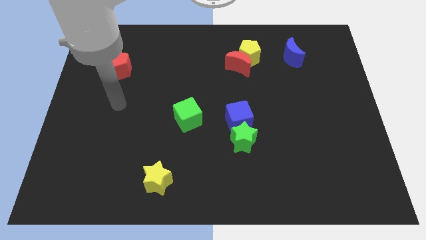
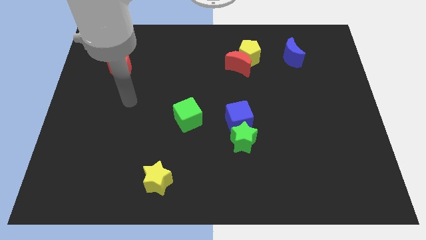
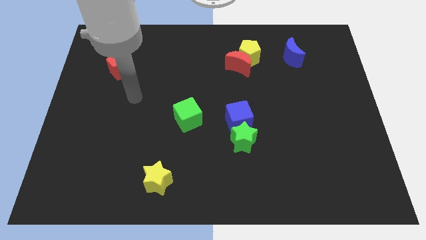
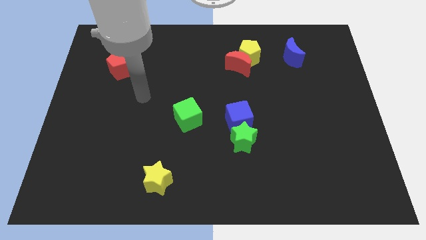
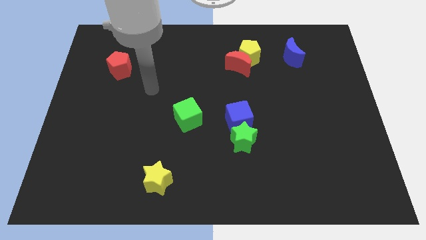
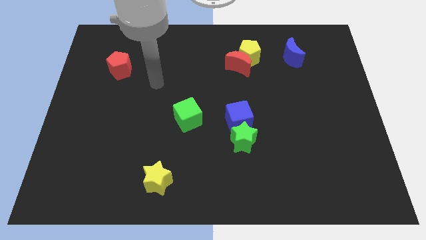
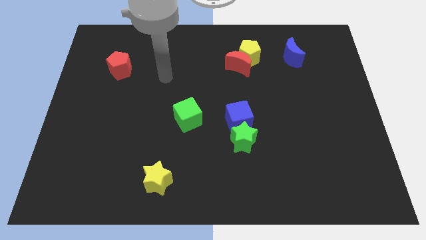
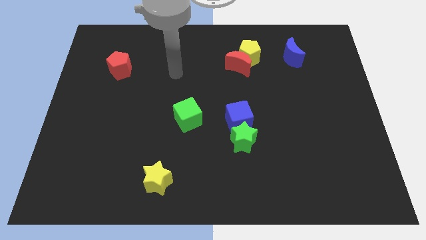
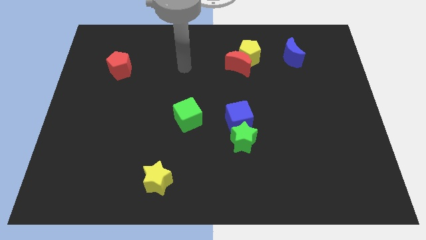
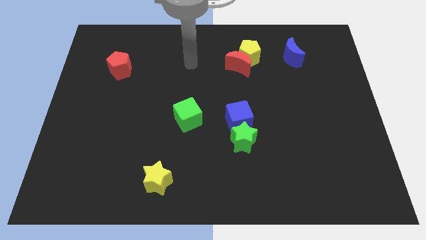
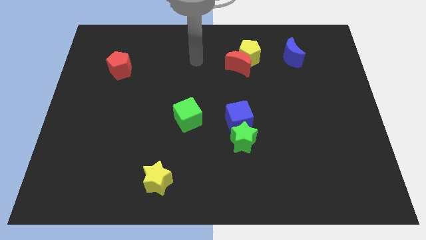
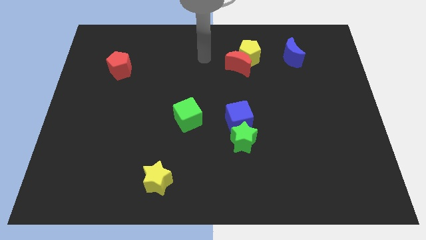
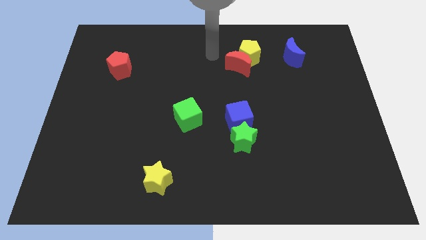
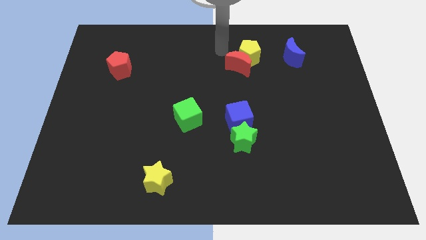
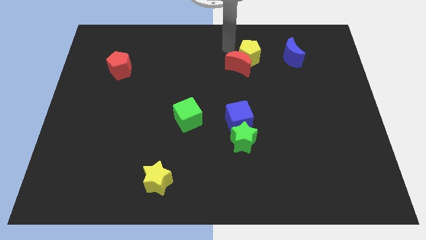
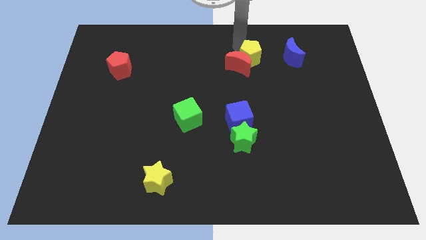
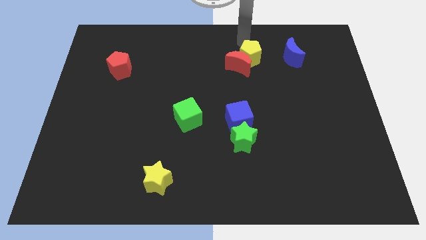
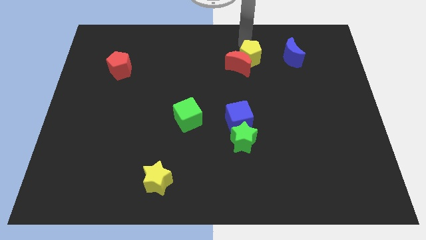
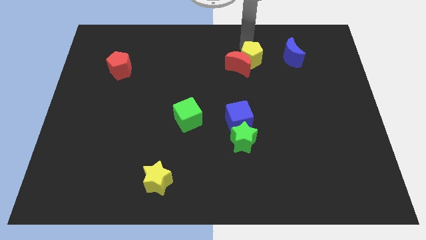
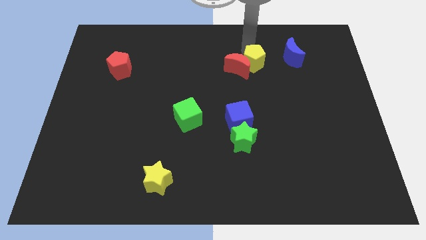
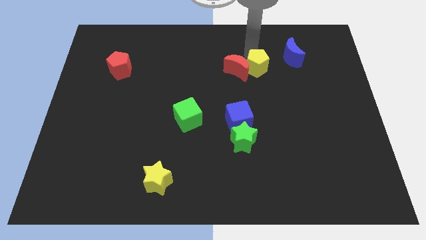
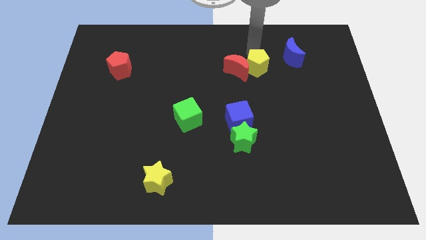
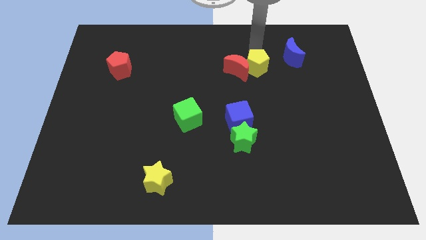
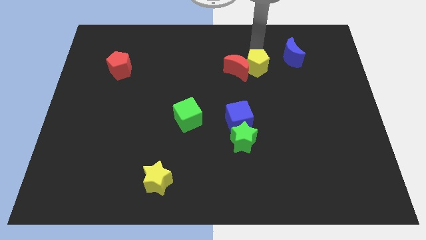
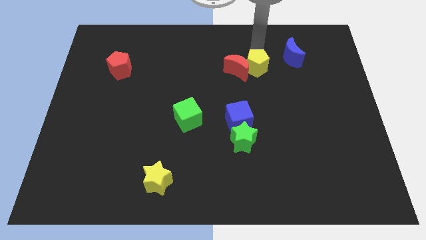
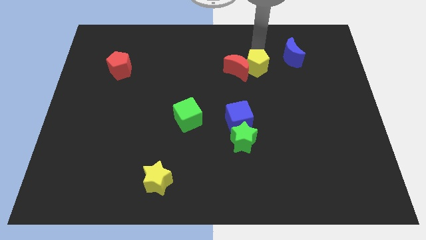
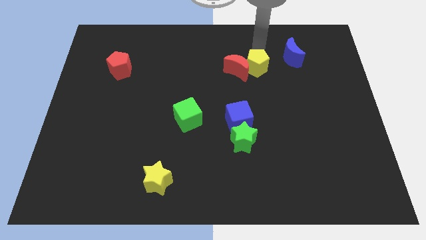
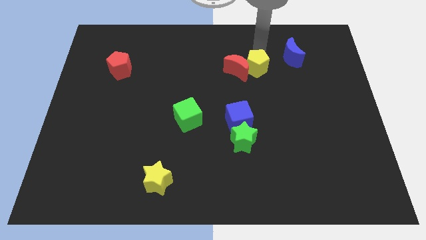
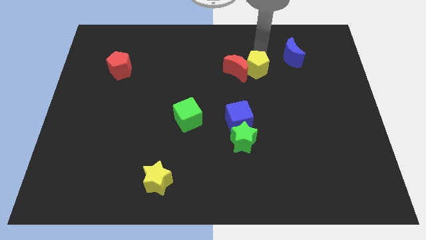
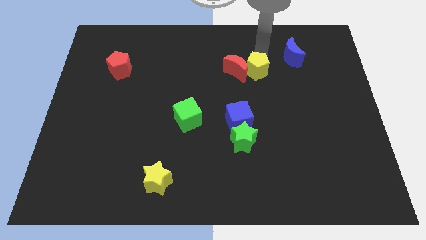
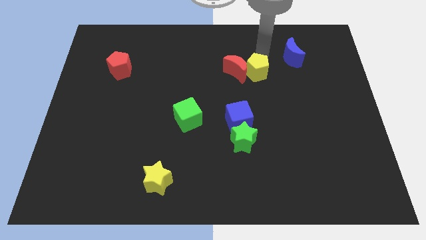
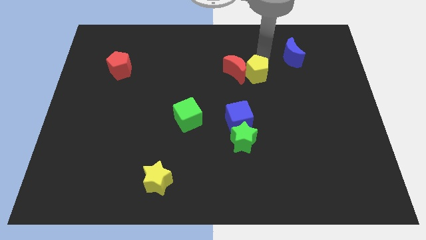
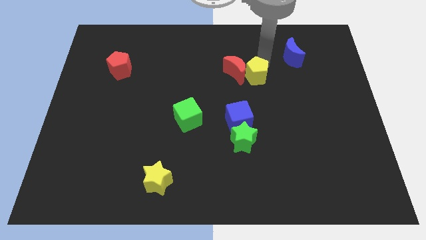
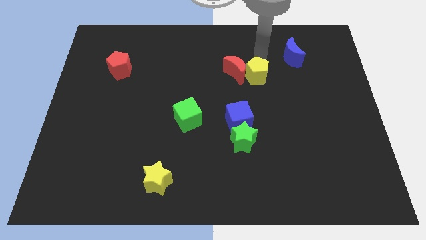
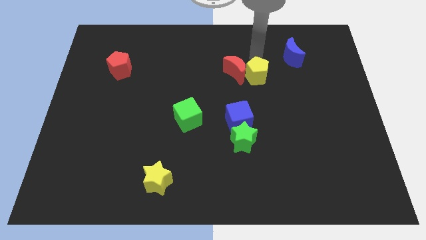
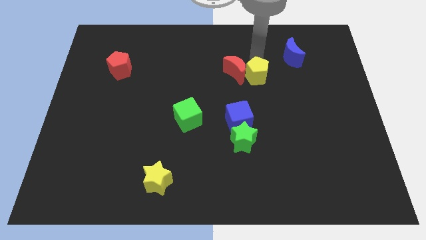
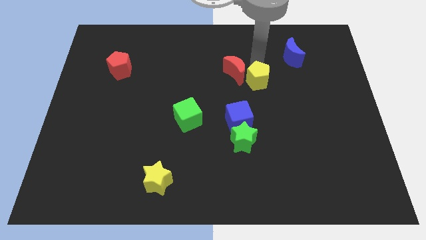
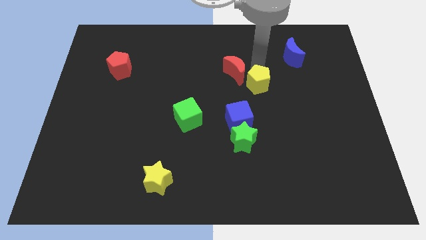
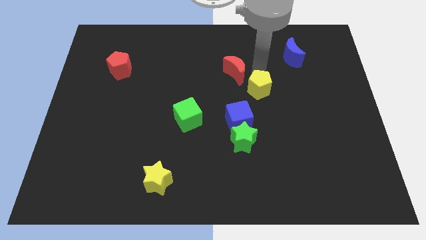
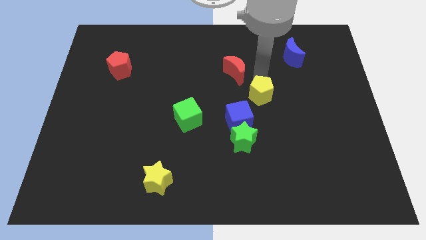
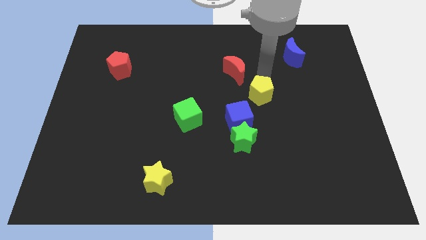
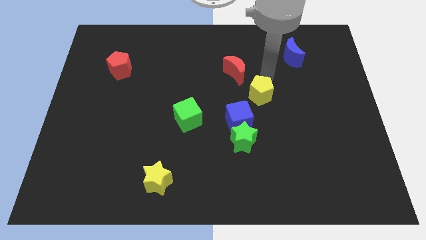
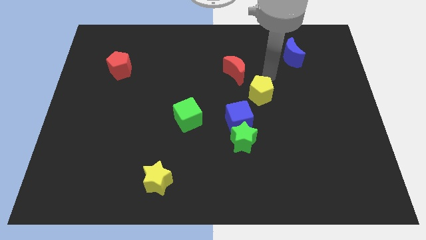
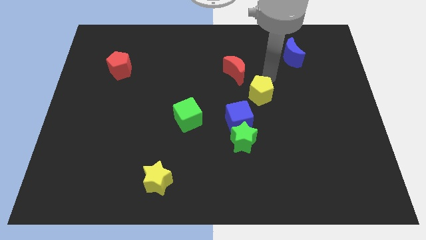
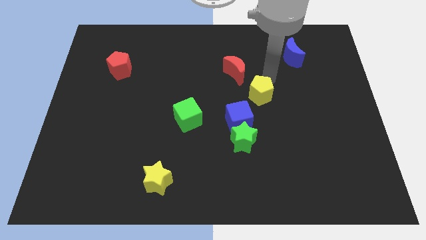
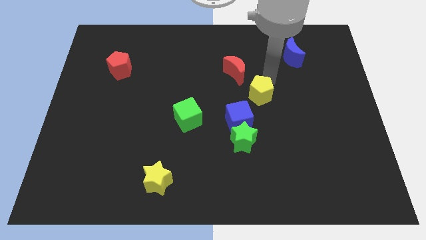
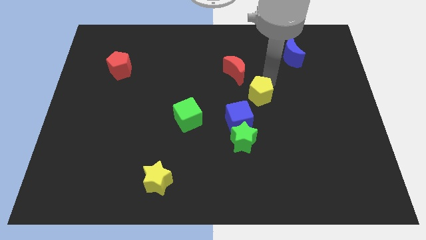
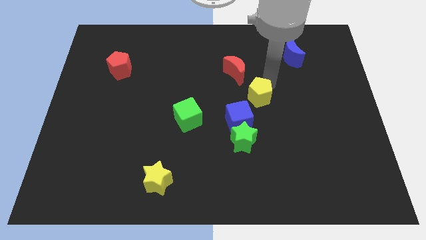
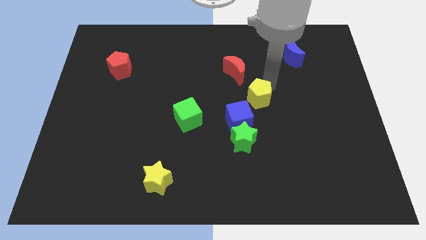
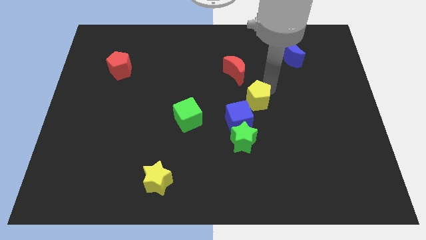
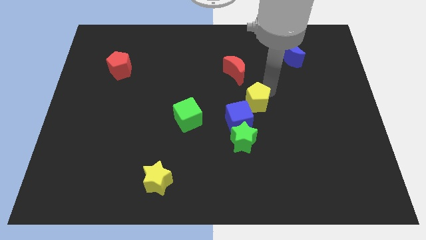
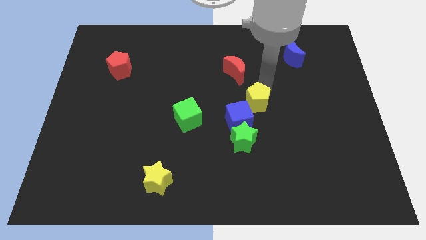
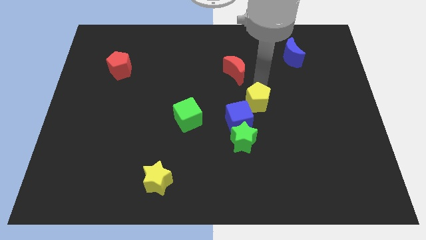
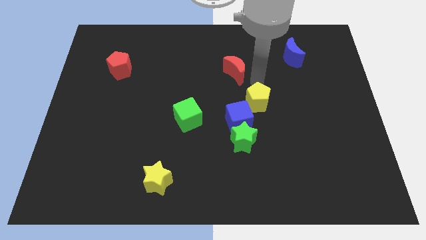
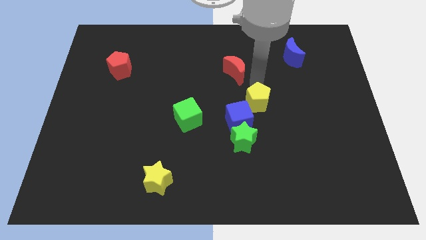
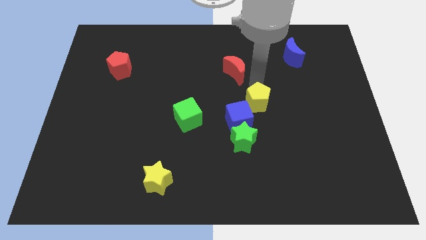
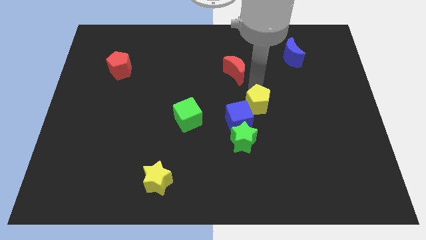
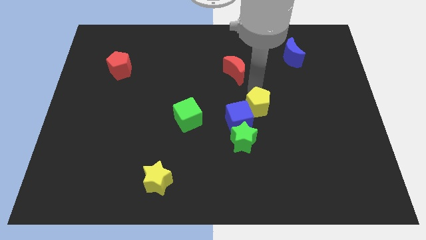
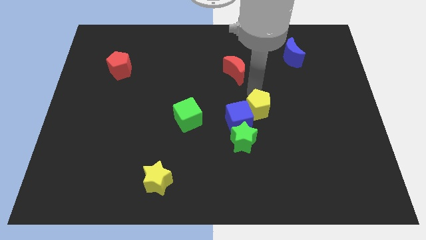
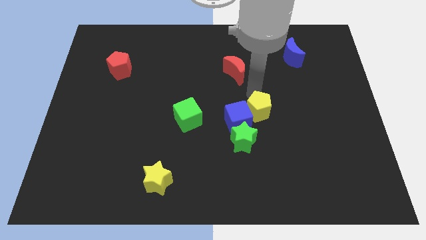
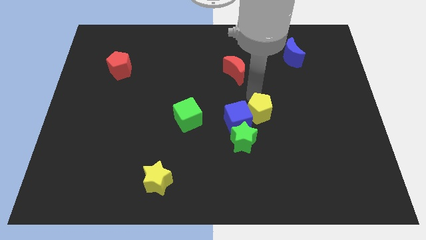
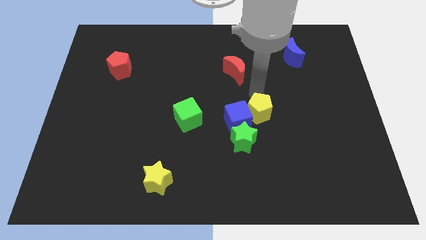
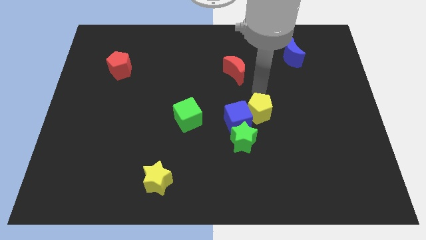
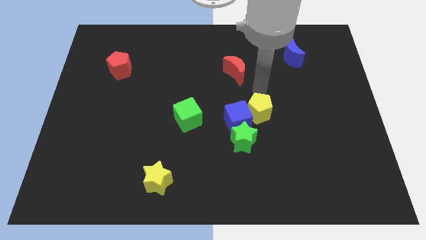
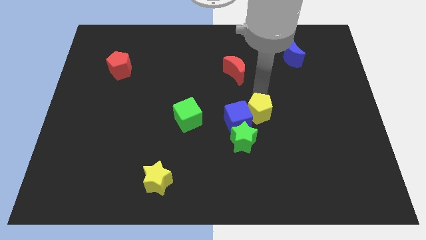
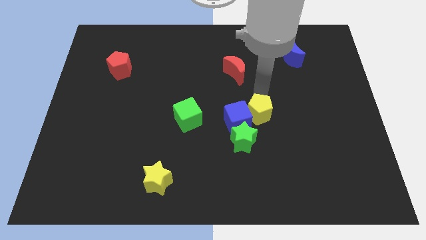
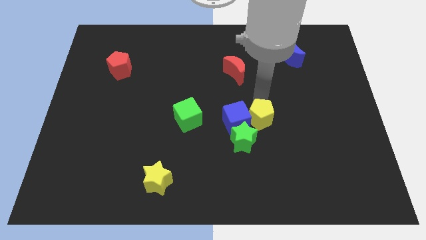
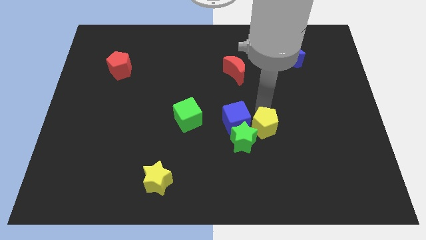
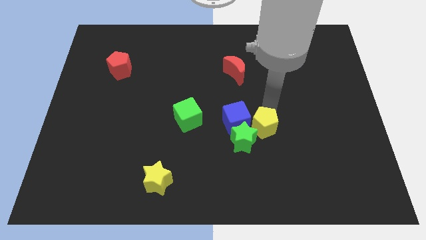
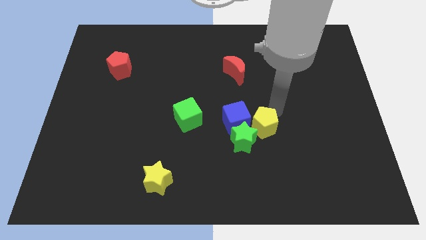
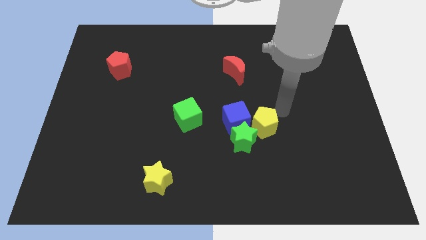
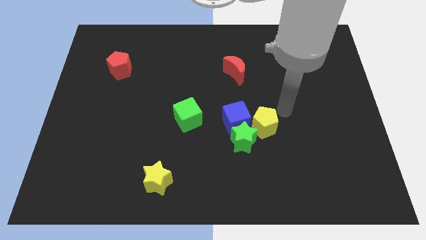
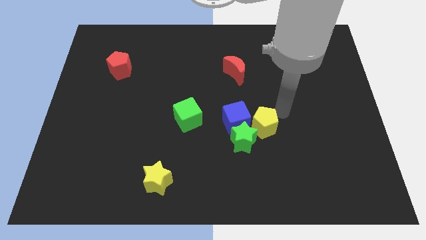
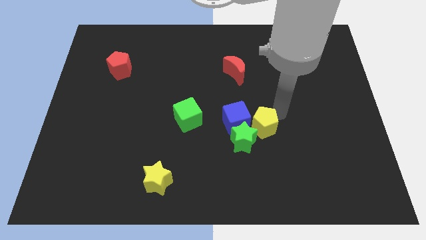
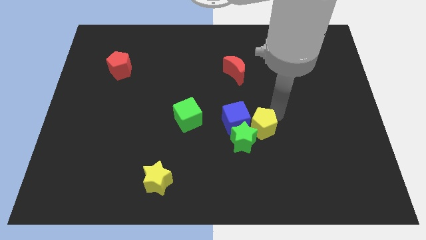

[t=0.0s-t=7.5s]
put the yellow pentagon next to the green star
